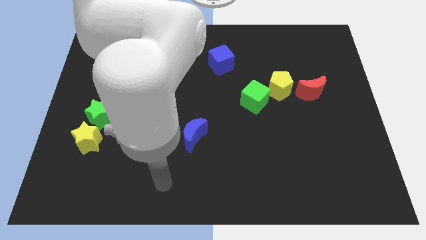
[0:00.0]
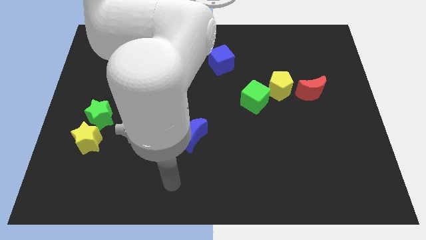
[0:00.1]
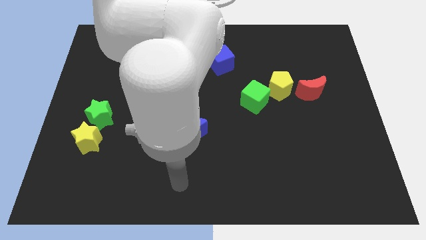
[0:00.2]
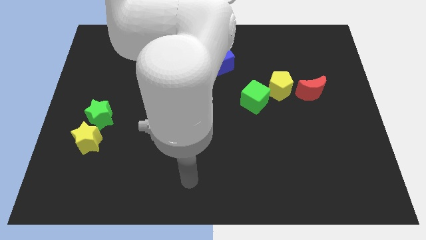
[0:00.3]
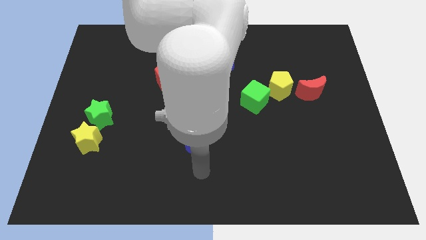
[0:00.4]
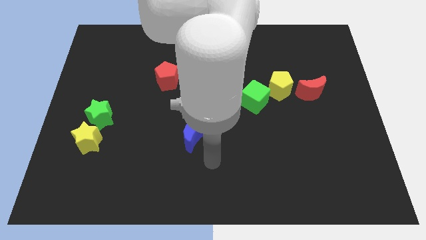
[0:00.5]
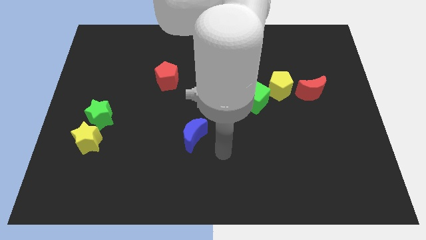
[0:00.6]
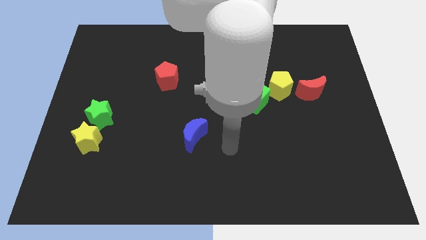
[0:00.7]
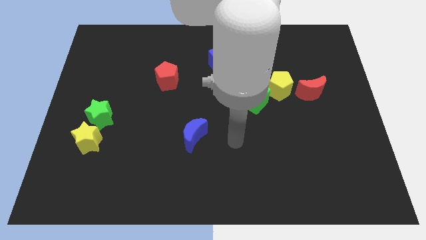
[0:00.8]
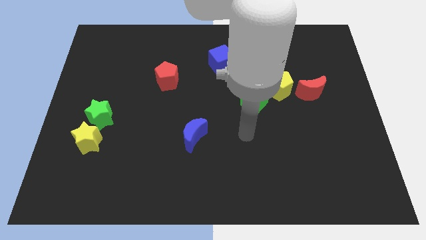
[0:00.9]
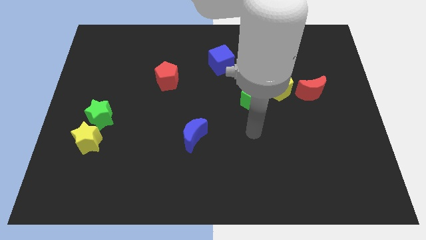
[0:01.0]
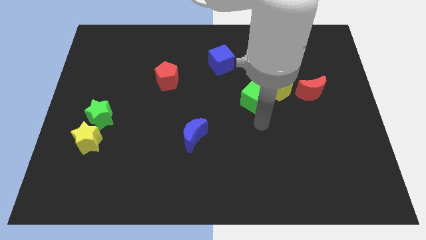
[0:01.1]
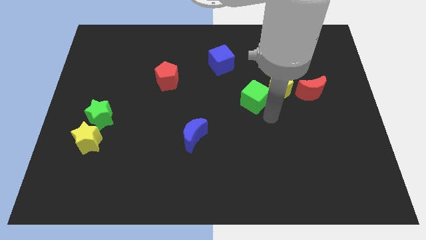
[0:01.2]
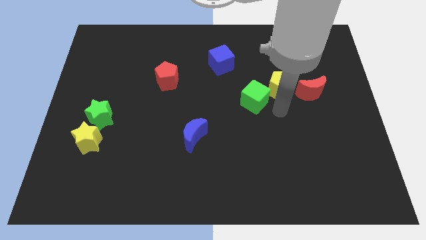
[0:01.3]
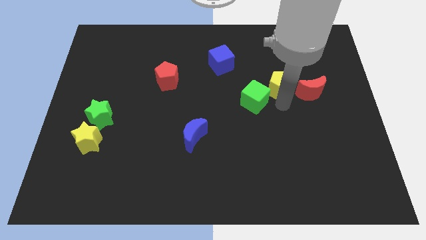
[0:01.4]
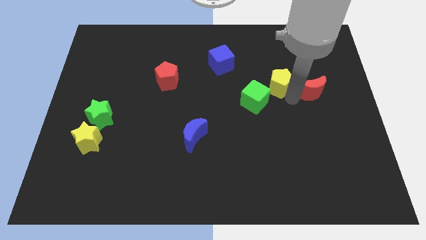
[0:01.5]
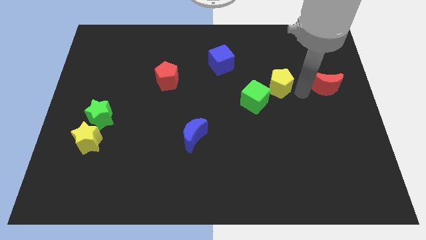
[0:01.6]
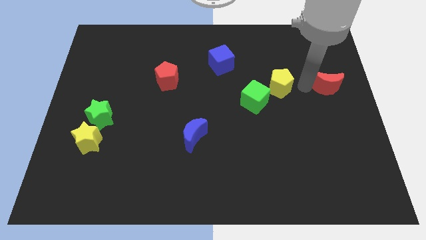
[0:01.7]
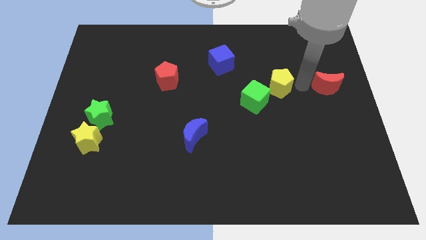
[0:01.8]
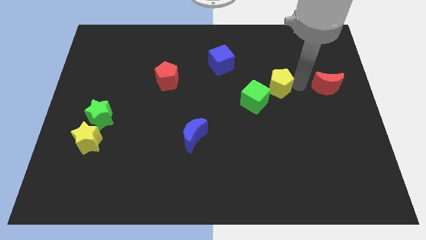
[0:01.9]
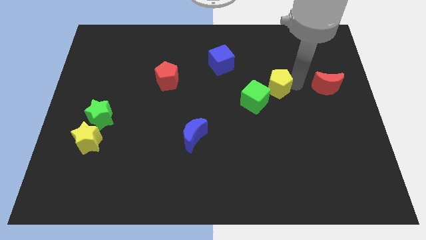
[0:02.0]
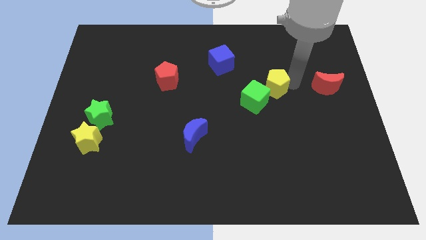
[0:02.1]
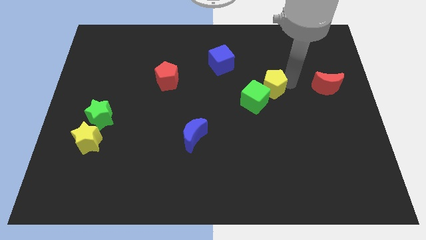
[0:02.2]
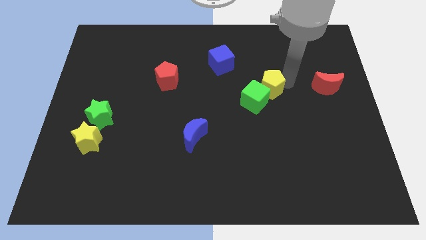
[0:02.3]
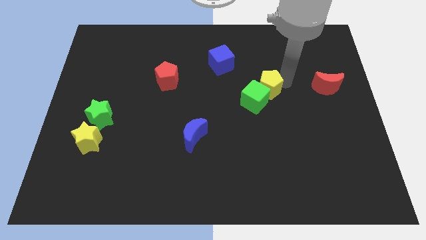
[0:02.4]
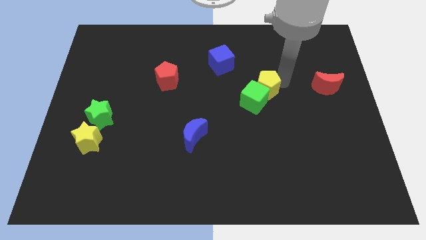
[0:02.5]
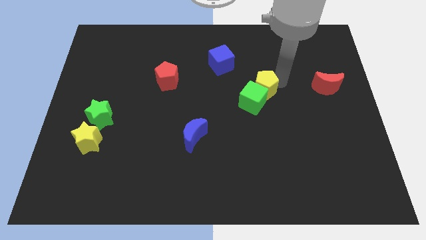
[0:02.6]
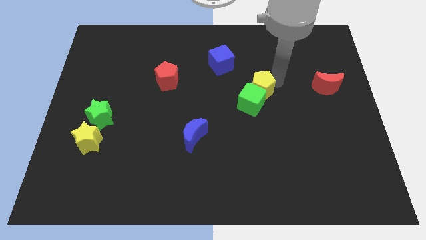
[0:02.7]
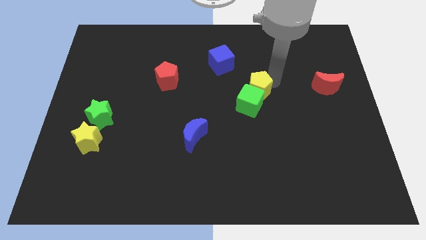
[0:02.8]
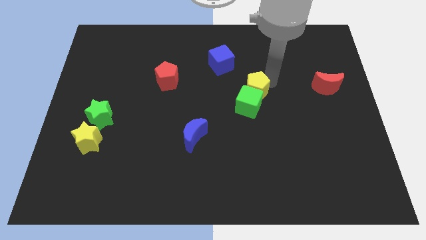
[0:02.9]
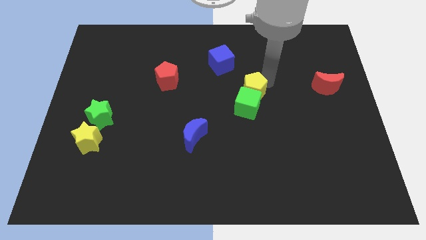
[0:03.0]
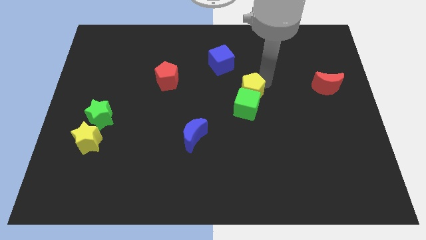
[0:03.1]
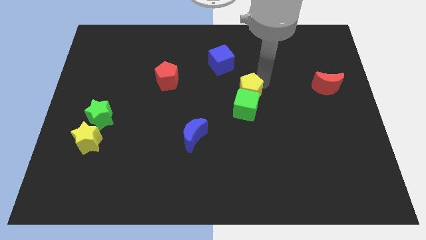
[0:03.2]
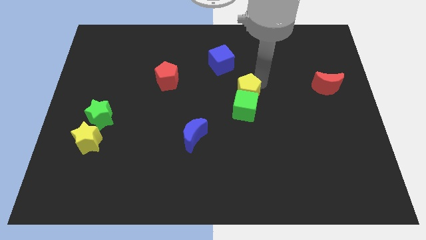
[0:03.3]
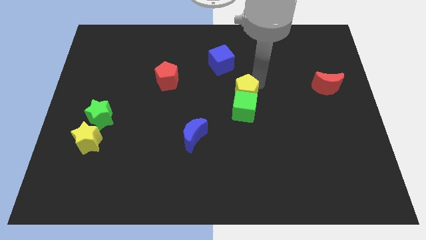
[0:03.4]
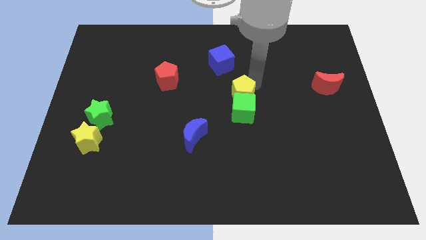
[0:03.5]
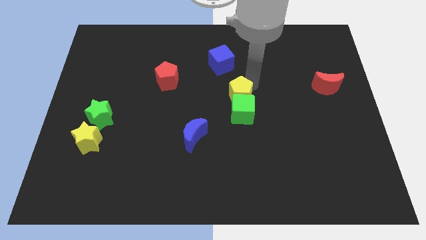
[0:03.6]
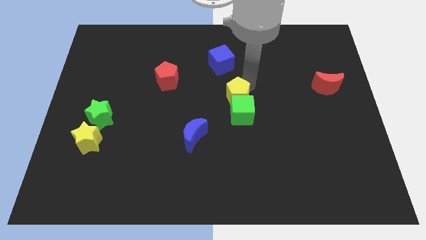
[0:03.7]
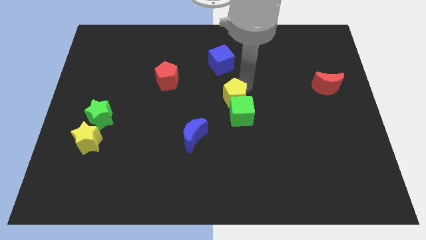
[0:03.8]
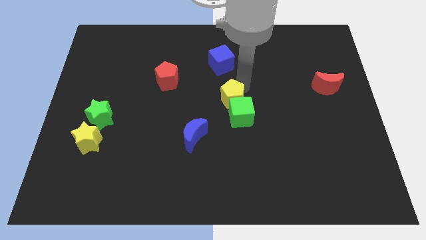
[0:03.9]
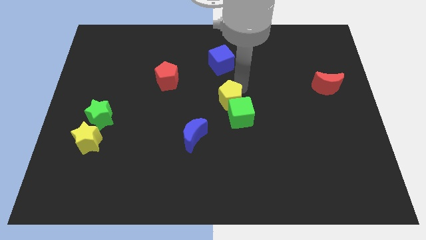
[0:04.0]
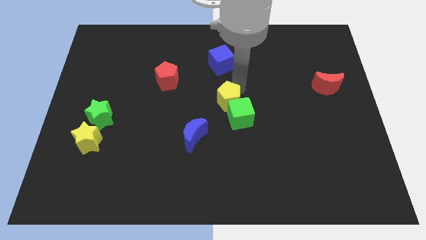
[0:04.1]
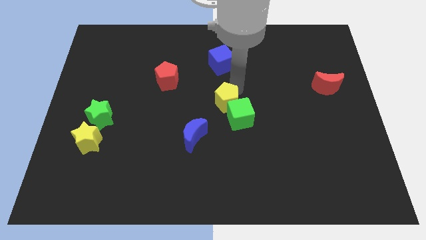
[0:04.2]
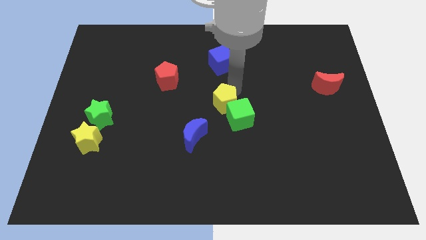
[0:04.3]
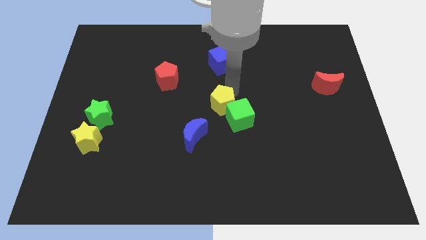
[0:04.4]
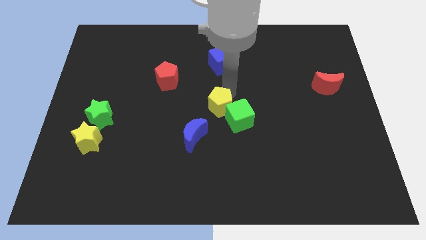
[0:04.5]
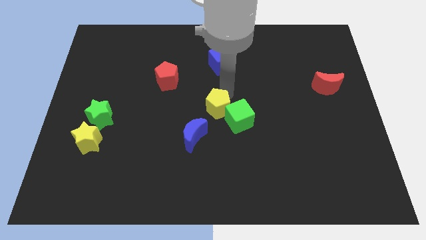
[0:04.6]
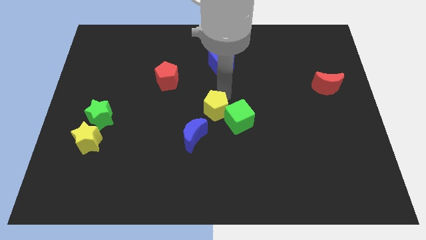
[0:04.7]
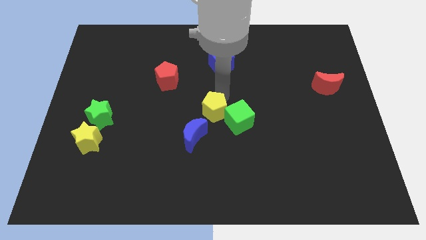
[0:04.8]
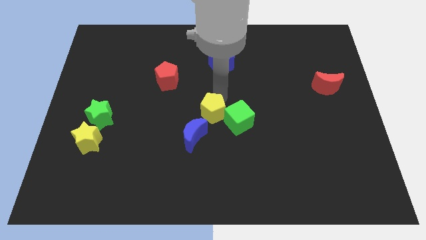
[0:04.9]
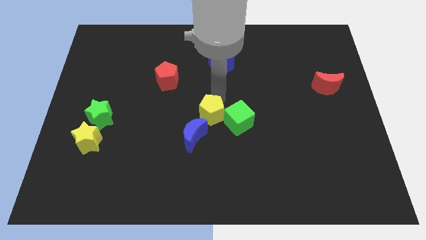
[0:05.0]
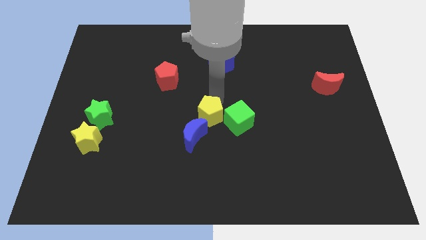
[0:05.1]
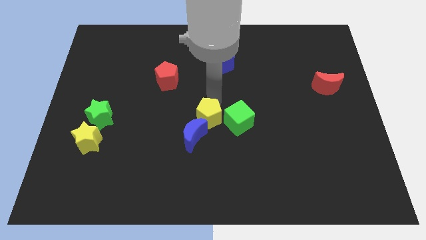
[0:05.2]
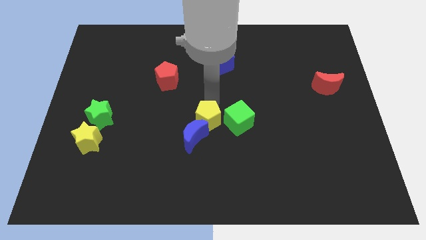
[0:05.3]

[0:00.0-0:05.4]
slide the yellow pentagon to the blue moon

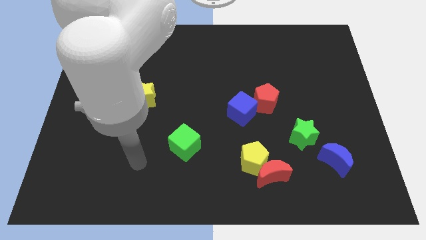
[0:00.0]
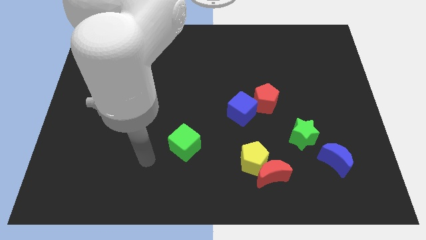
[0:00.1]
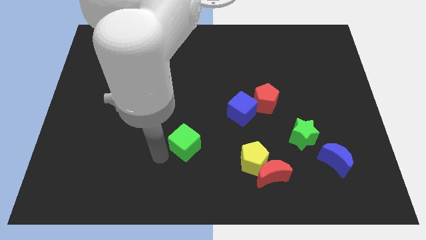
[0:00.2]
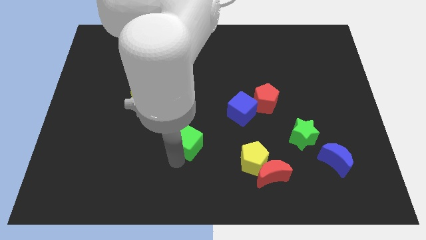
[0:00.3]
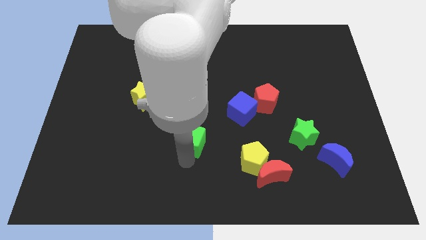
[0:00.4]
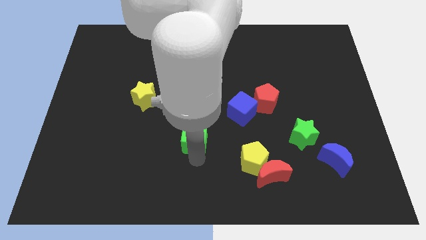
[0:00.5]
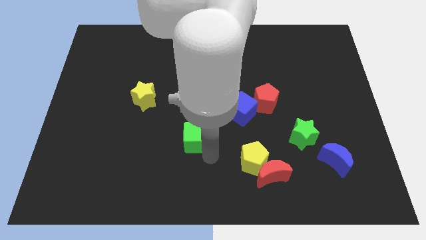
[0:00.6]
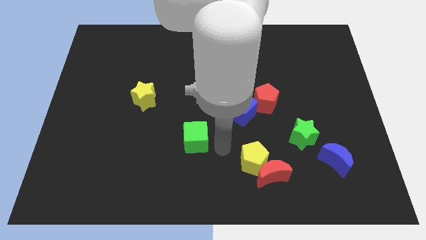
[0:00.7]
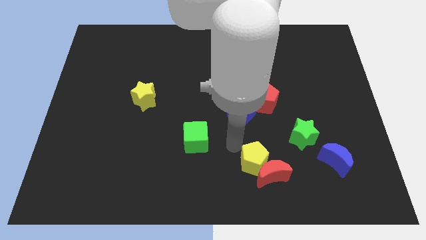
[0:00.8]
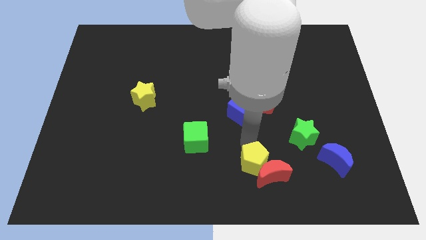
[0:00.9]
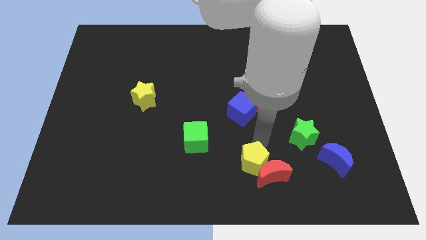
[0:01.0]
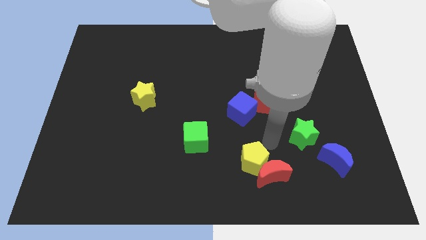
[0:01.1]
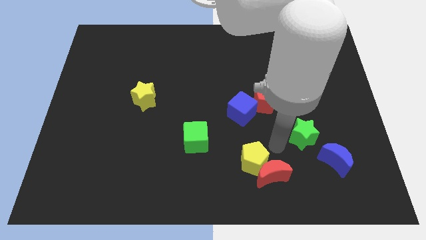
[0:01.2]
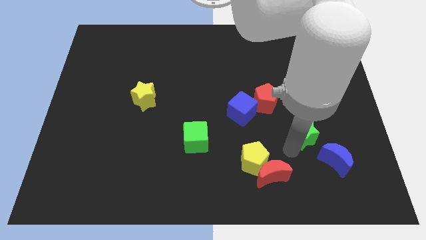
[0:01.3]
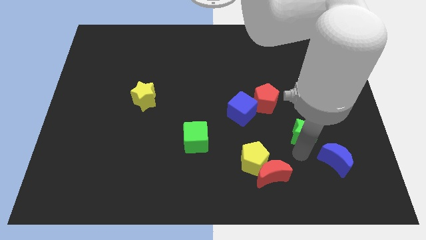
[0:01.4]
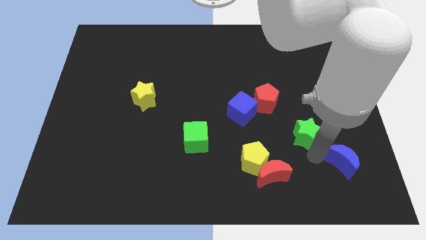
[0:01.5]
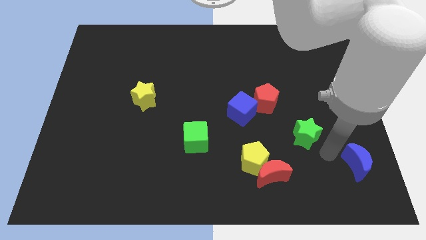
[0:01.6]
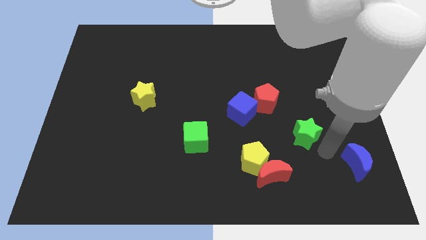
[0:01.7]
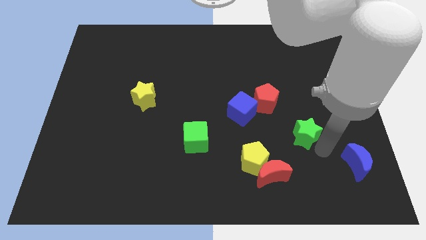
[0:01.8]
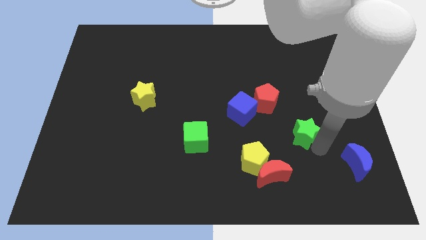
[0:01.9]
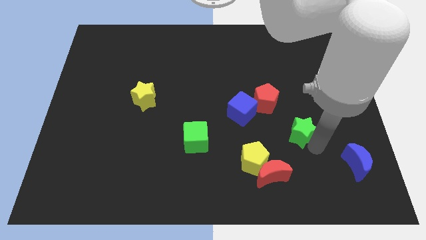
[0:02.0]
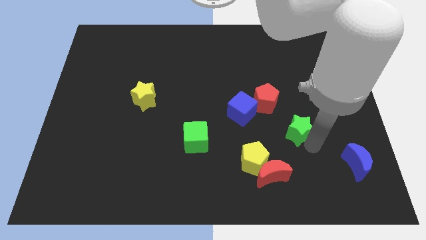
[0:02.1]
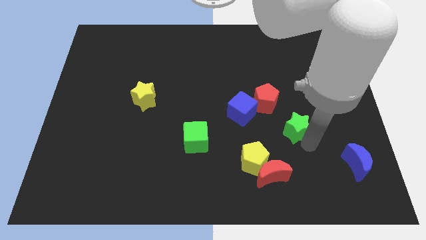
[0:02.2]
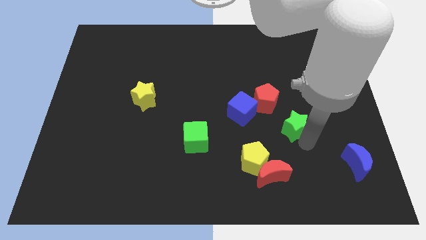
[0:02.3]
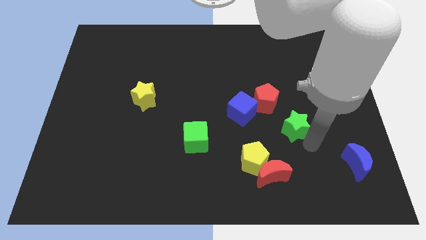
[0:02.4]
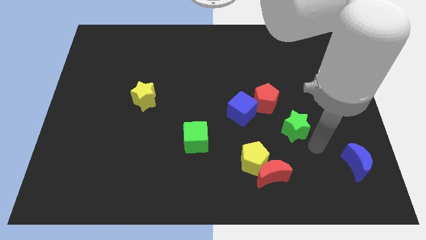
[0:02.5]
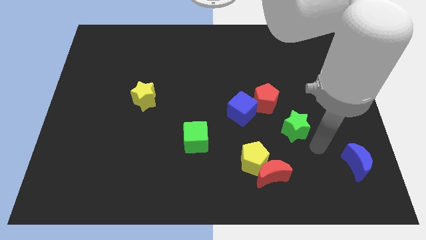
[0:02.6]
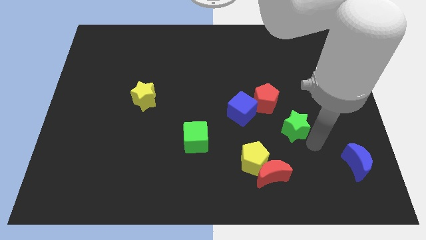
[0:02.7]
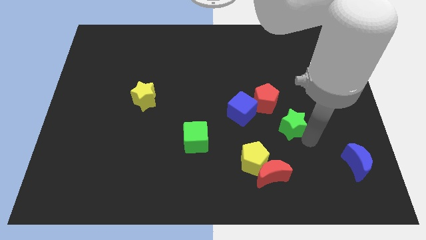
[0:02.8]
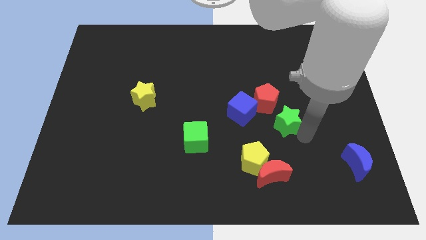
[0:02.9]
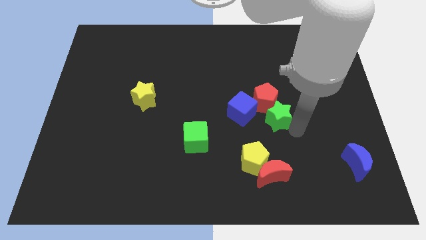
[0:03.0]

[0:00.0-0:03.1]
put the green star next to the red pentagon
